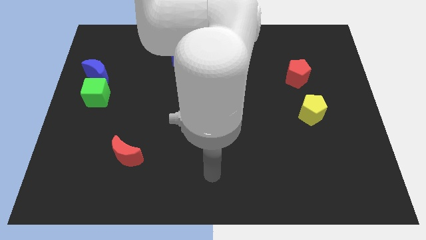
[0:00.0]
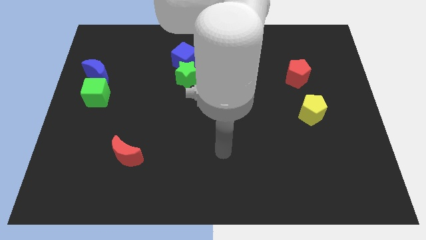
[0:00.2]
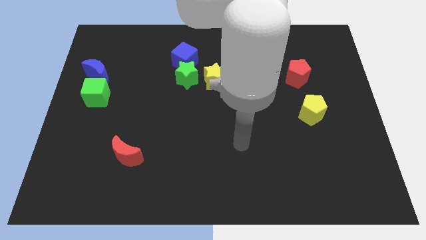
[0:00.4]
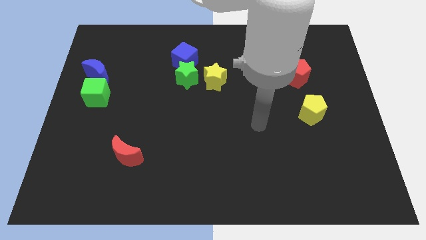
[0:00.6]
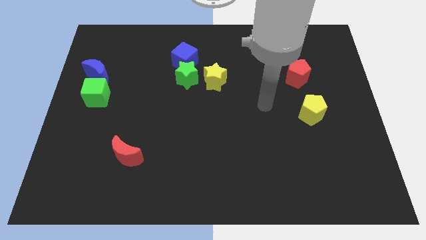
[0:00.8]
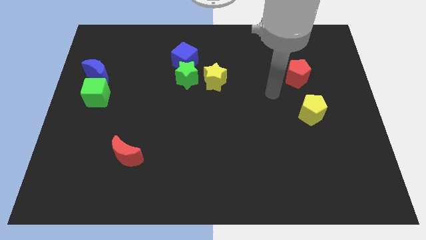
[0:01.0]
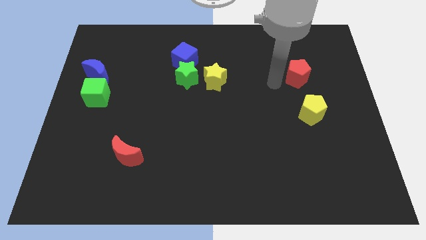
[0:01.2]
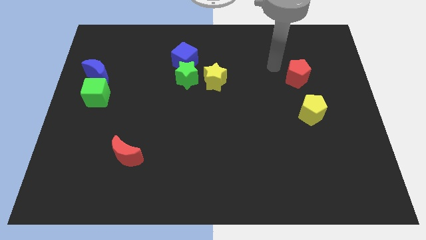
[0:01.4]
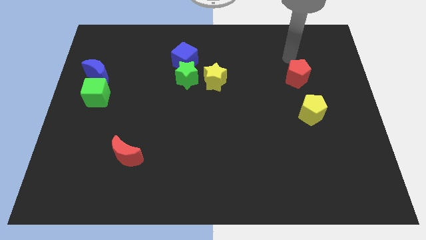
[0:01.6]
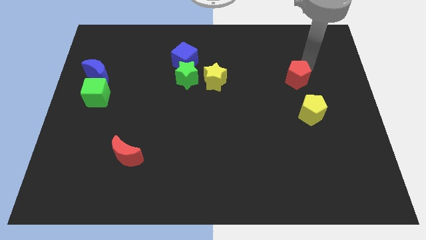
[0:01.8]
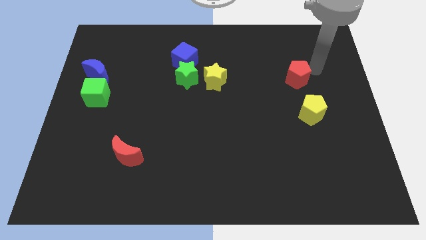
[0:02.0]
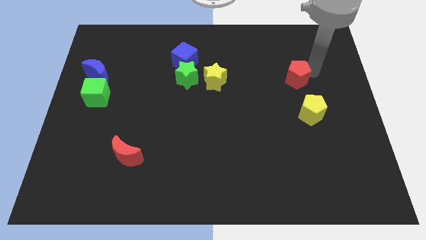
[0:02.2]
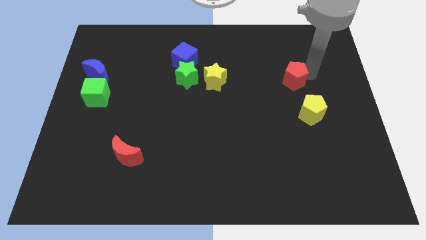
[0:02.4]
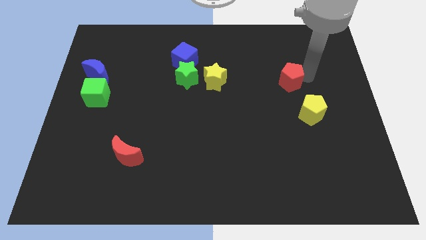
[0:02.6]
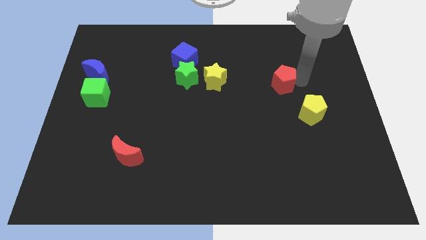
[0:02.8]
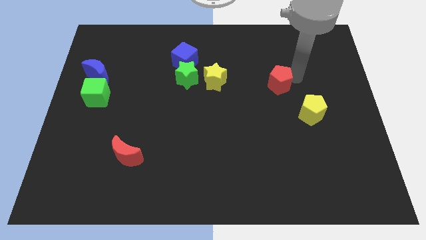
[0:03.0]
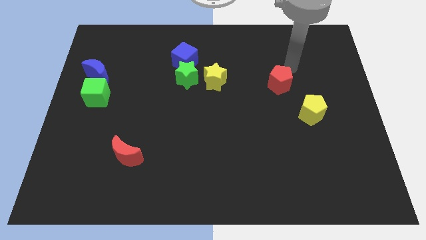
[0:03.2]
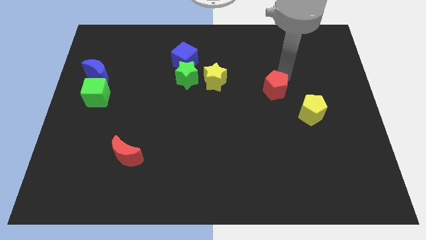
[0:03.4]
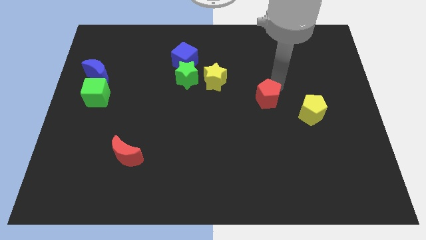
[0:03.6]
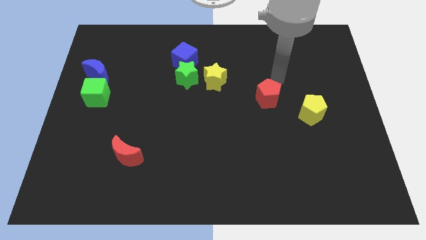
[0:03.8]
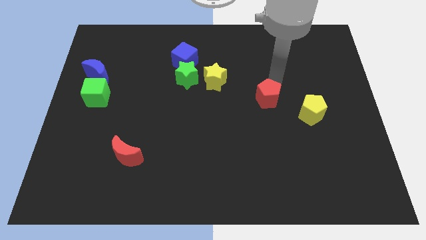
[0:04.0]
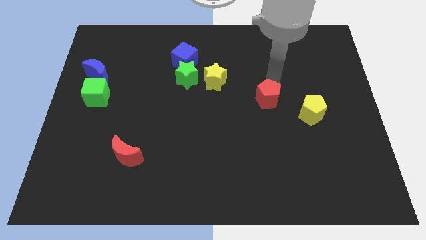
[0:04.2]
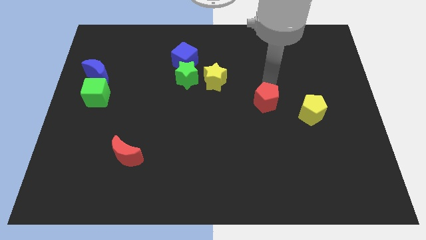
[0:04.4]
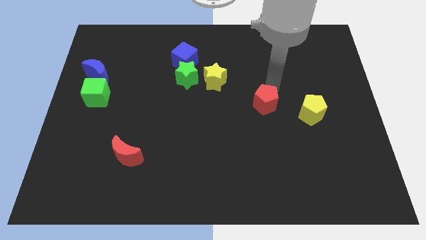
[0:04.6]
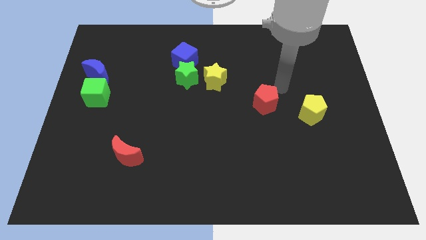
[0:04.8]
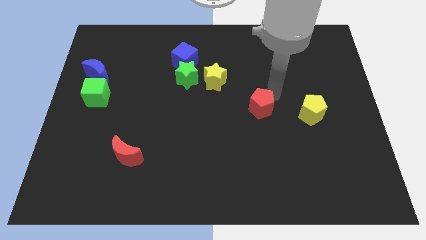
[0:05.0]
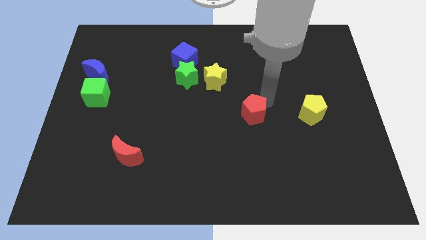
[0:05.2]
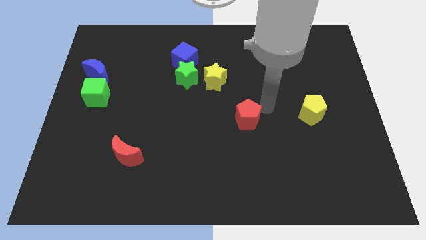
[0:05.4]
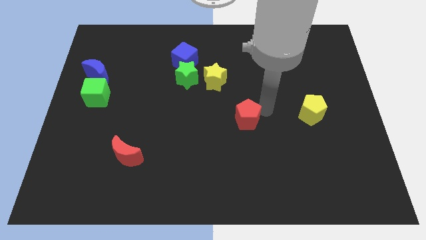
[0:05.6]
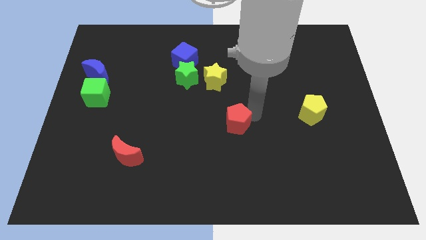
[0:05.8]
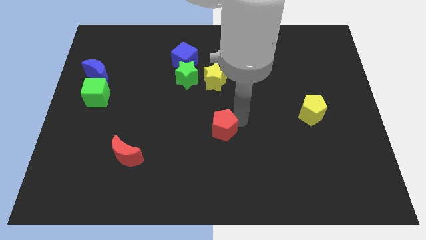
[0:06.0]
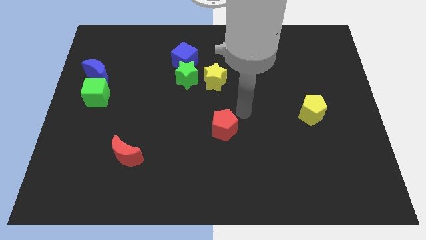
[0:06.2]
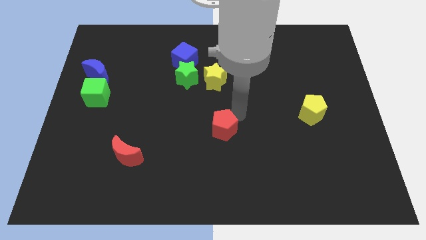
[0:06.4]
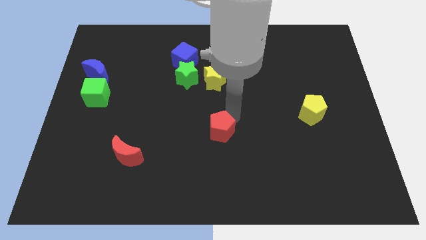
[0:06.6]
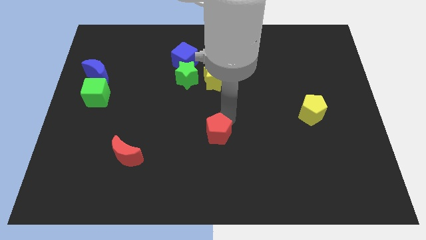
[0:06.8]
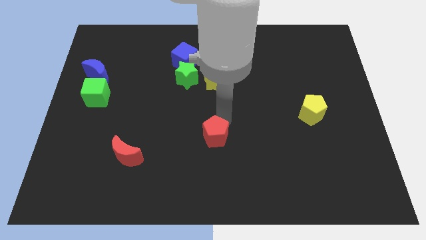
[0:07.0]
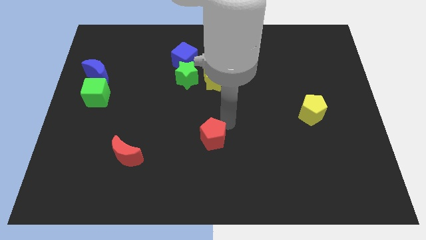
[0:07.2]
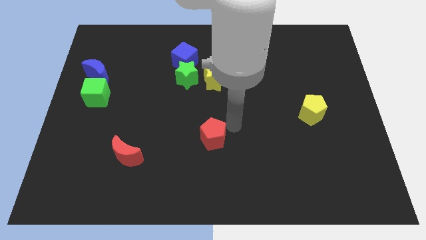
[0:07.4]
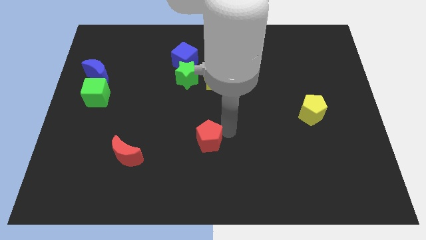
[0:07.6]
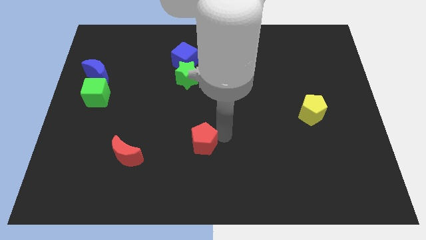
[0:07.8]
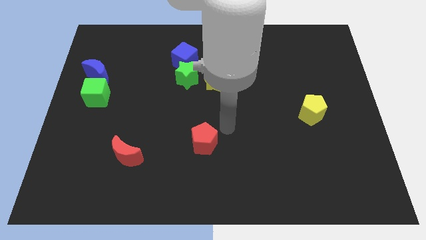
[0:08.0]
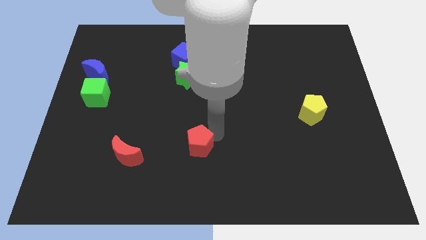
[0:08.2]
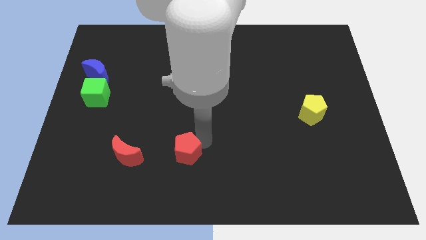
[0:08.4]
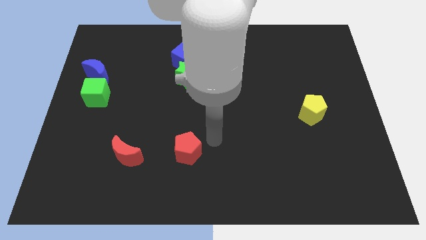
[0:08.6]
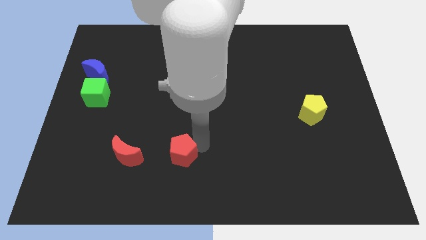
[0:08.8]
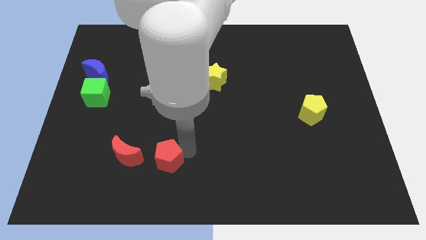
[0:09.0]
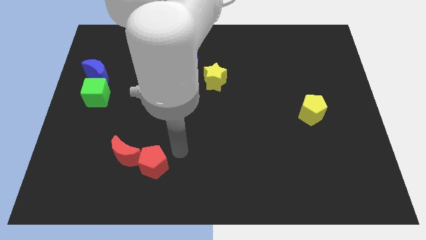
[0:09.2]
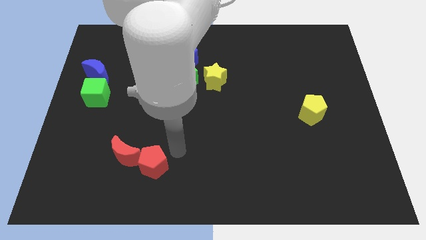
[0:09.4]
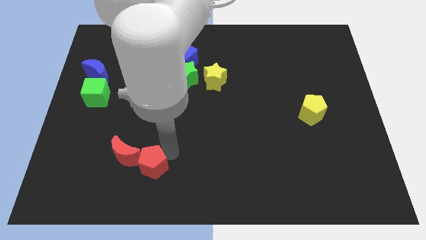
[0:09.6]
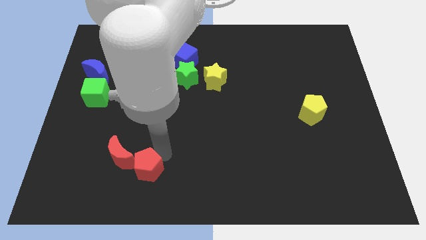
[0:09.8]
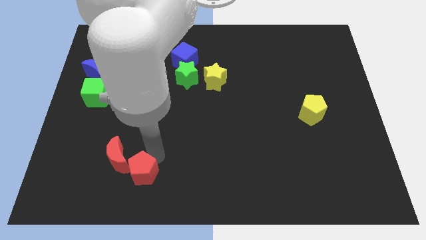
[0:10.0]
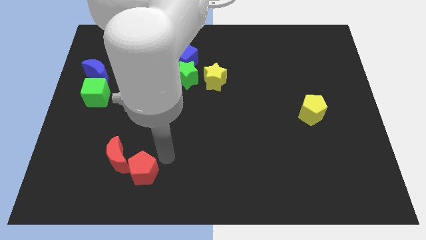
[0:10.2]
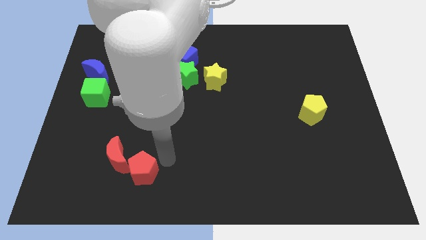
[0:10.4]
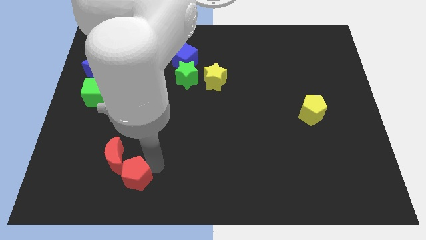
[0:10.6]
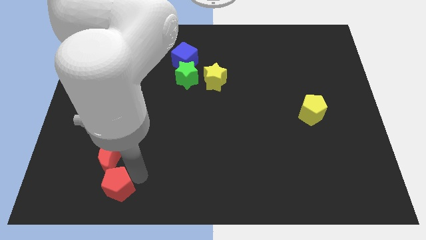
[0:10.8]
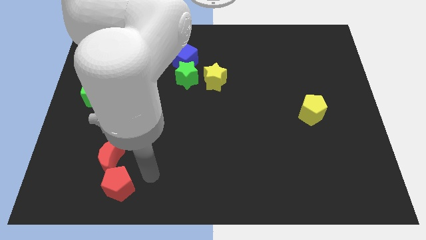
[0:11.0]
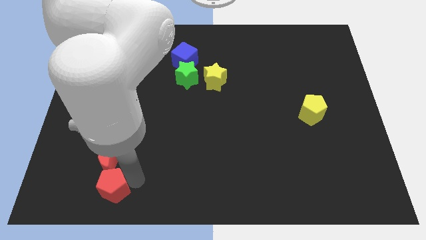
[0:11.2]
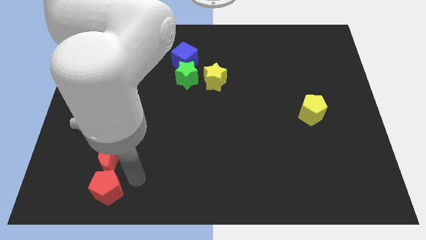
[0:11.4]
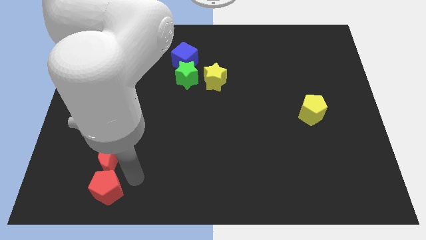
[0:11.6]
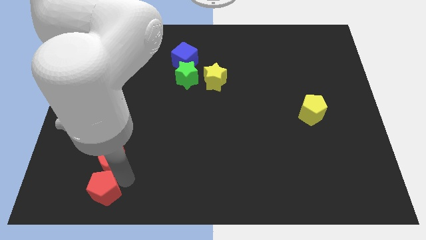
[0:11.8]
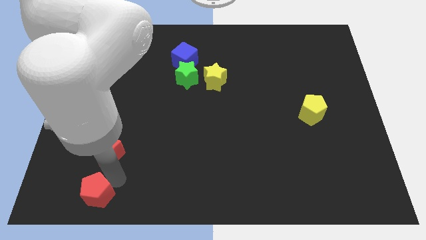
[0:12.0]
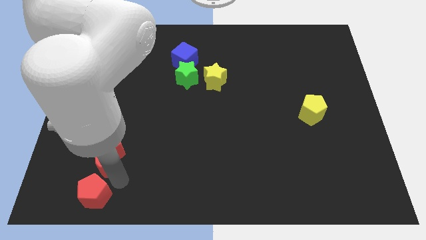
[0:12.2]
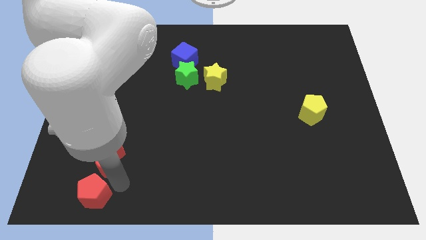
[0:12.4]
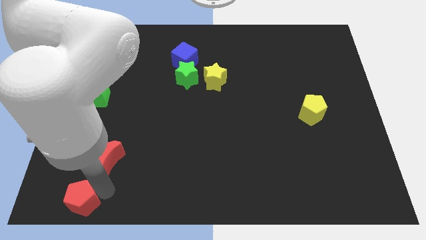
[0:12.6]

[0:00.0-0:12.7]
move the red pentagon to the bottom left

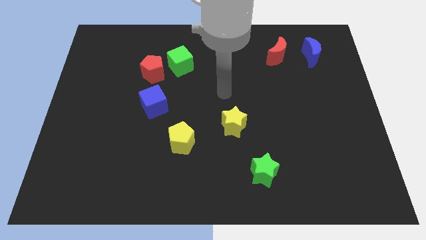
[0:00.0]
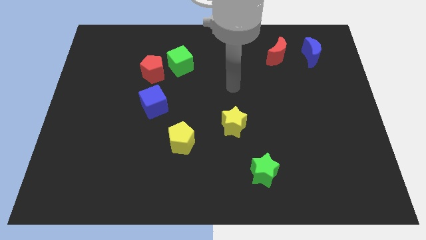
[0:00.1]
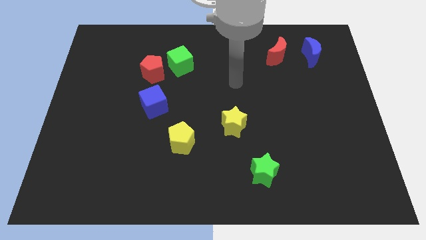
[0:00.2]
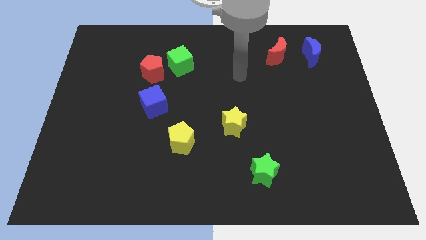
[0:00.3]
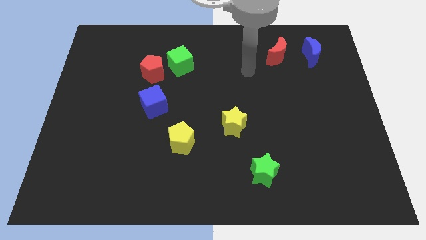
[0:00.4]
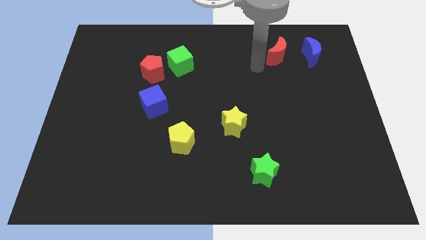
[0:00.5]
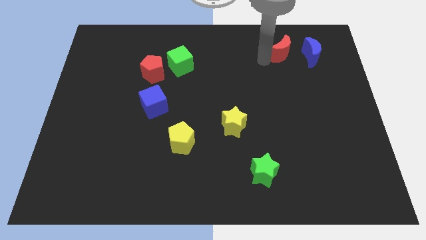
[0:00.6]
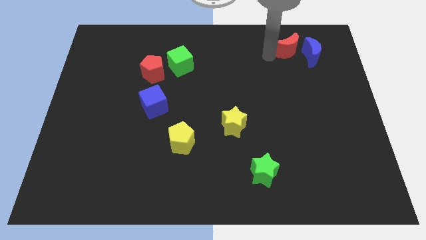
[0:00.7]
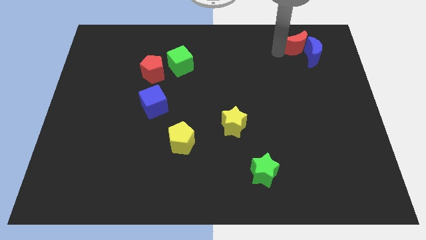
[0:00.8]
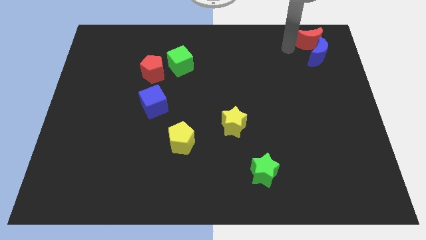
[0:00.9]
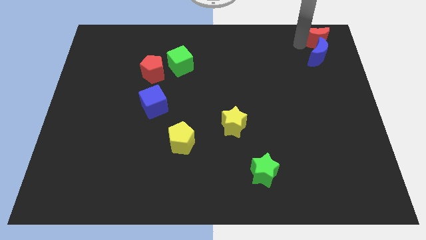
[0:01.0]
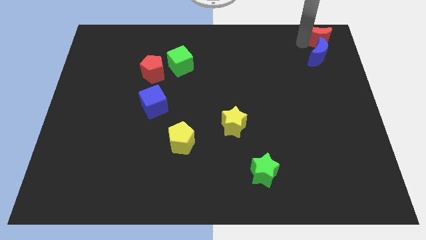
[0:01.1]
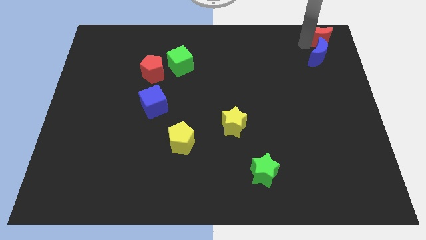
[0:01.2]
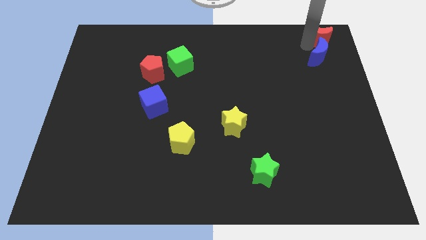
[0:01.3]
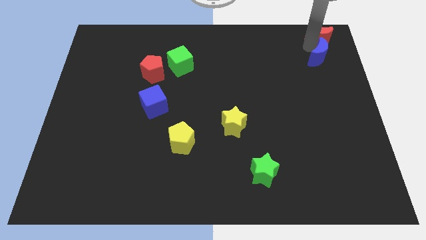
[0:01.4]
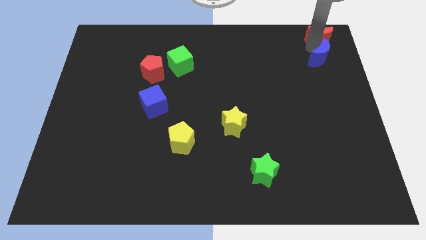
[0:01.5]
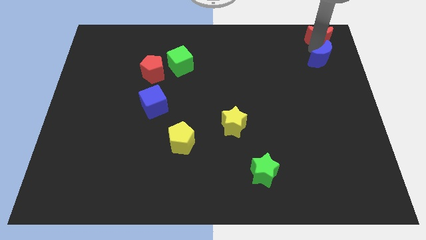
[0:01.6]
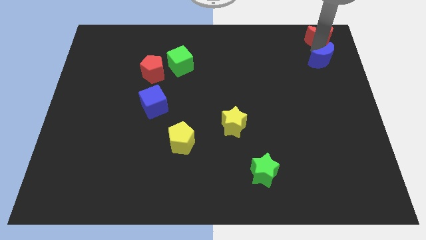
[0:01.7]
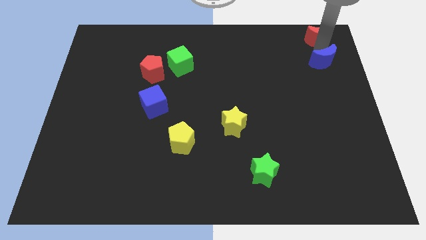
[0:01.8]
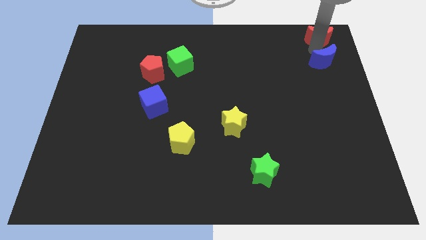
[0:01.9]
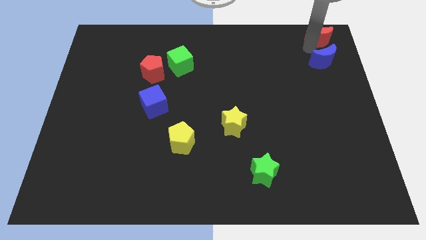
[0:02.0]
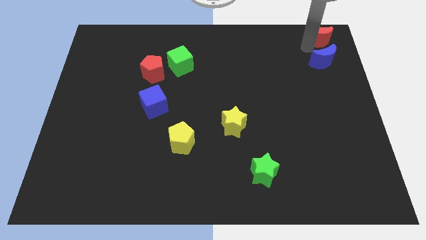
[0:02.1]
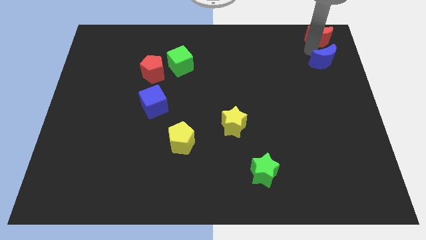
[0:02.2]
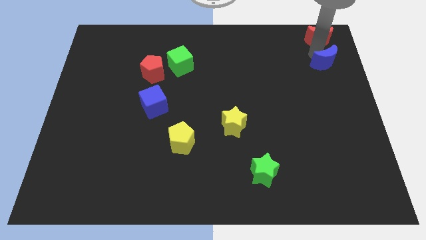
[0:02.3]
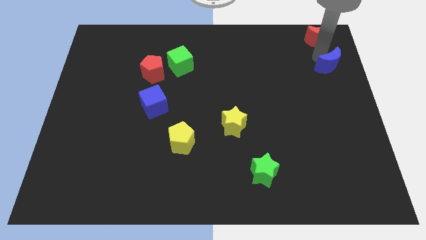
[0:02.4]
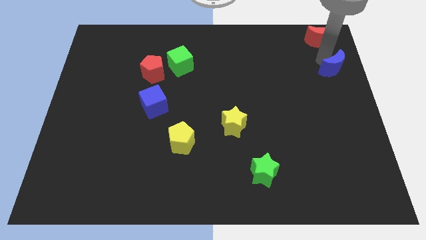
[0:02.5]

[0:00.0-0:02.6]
move the blue moon to the right side of the board
